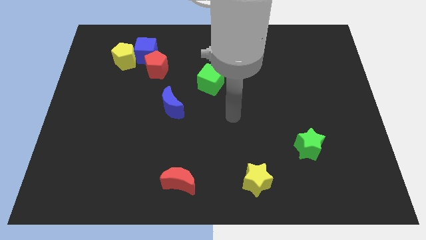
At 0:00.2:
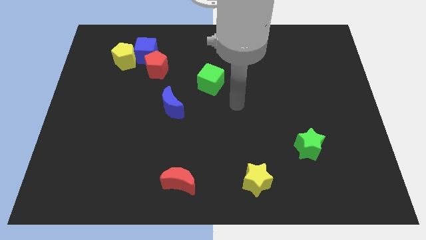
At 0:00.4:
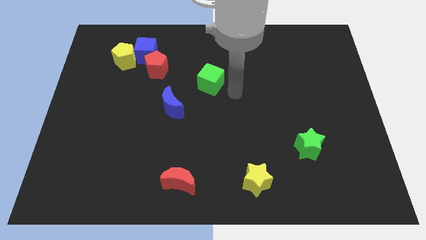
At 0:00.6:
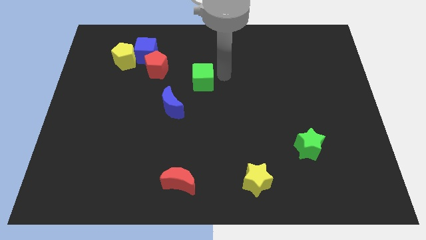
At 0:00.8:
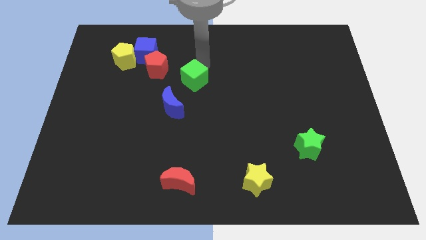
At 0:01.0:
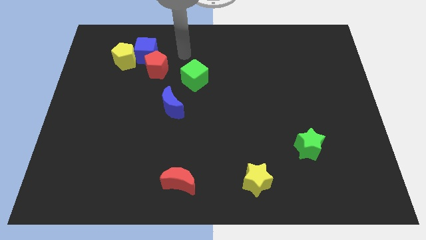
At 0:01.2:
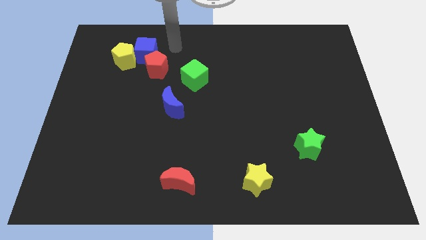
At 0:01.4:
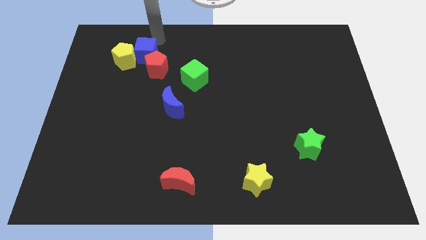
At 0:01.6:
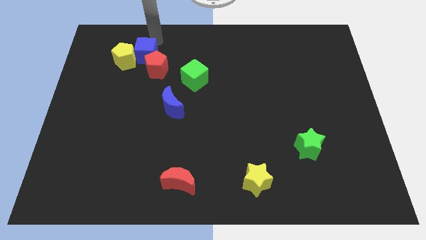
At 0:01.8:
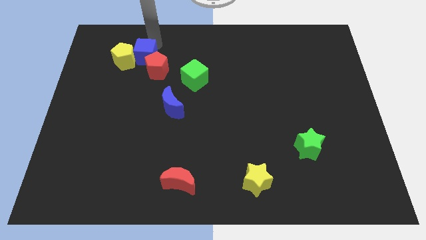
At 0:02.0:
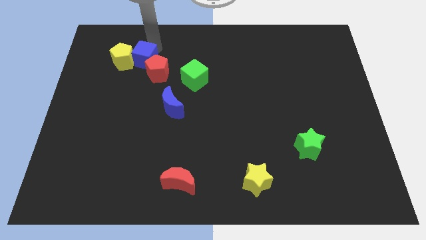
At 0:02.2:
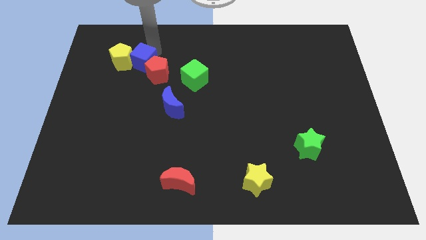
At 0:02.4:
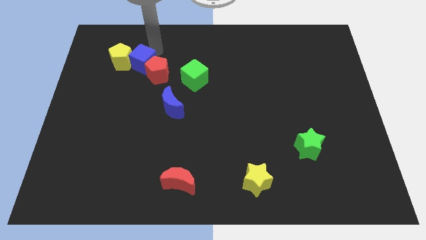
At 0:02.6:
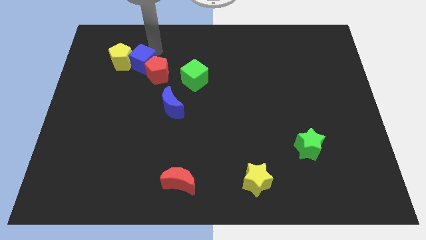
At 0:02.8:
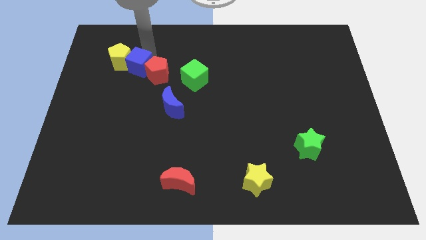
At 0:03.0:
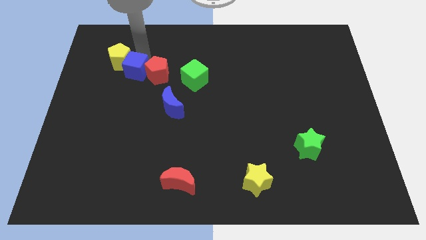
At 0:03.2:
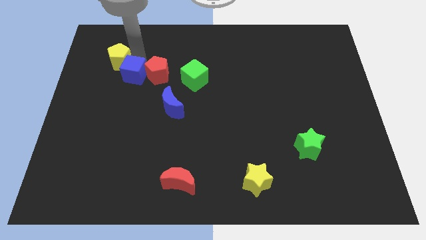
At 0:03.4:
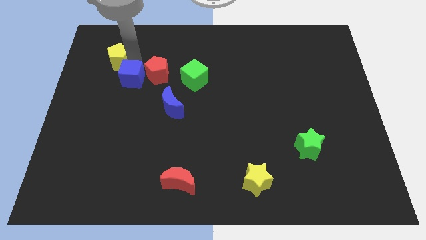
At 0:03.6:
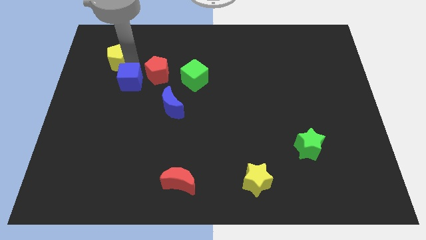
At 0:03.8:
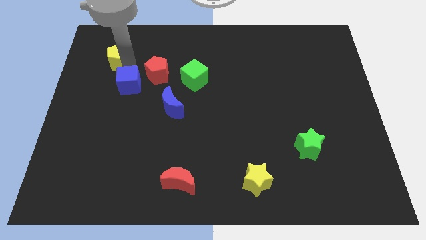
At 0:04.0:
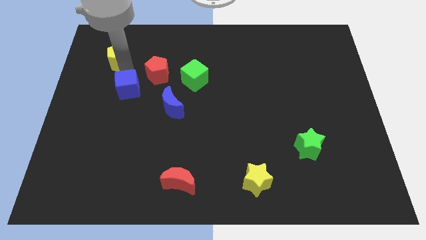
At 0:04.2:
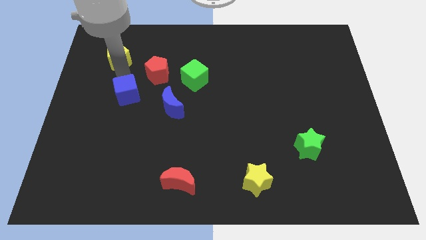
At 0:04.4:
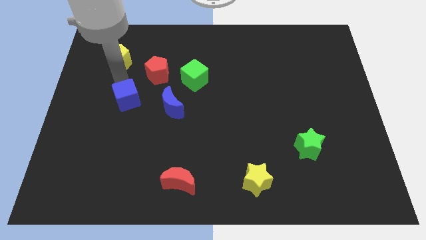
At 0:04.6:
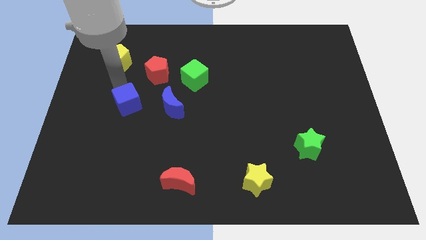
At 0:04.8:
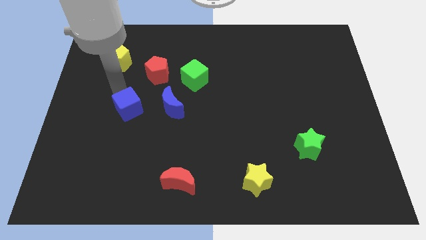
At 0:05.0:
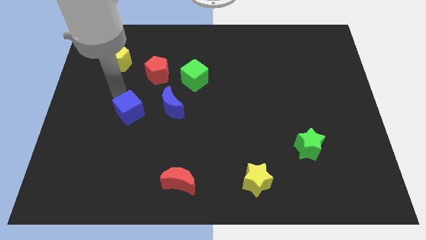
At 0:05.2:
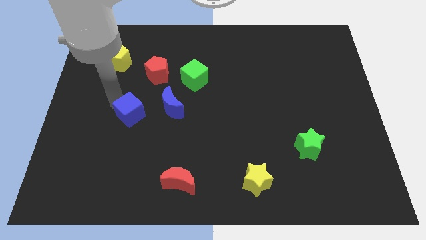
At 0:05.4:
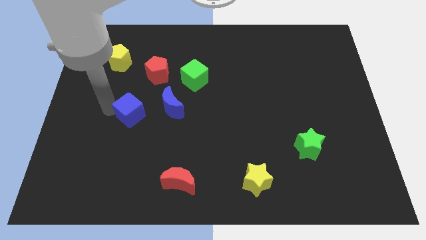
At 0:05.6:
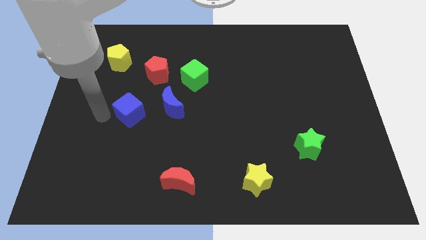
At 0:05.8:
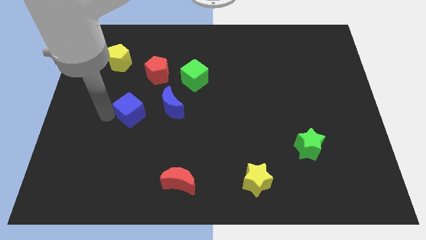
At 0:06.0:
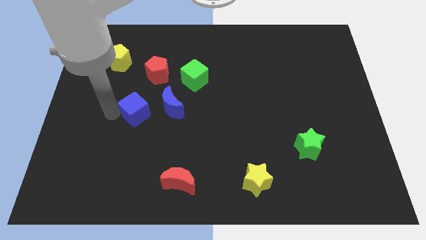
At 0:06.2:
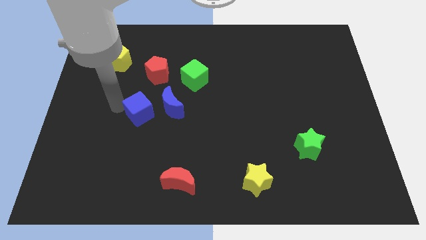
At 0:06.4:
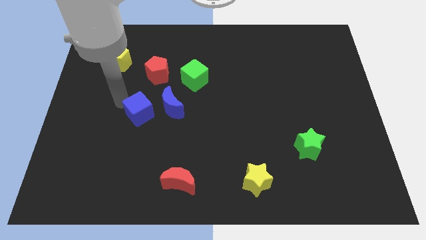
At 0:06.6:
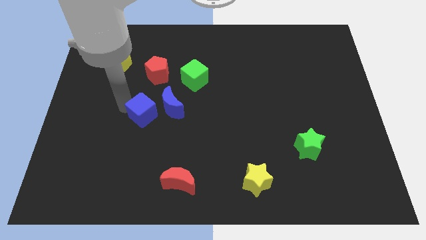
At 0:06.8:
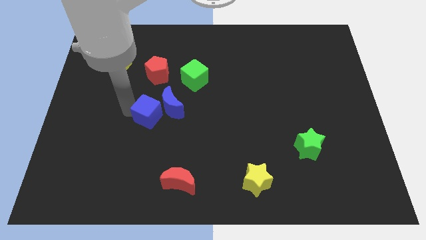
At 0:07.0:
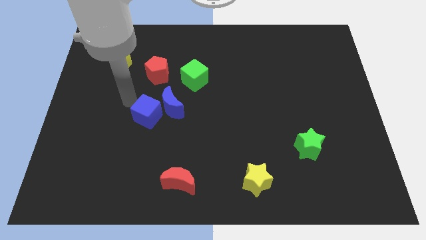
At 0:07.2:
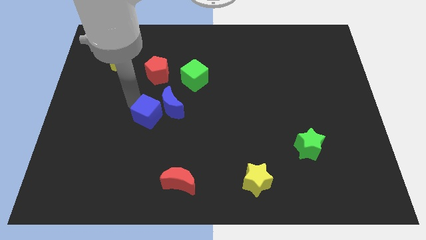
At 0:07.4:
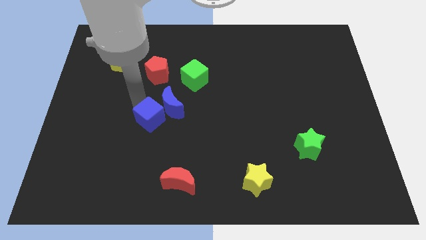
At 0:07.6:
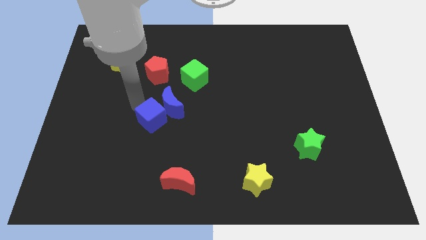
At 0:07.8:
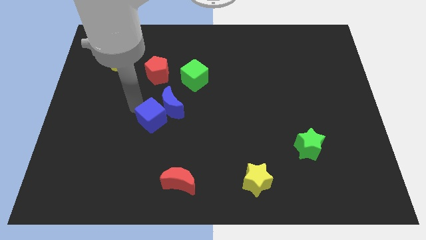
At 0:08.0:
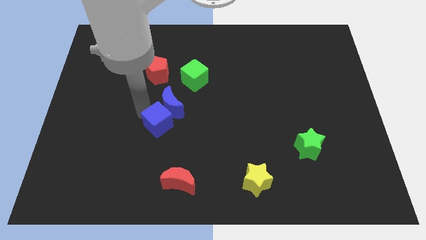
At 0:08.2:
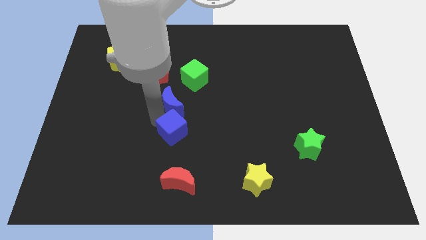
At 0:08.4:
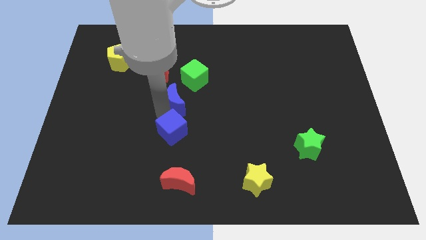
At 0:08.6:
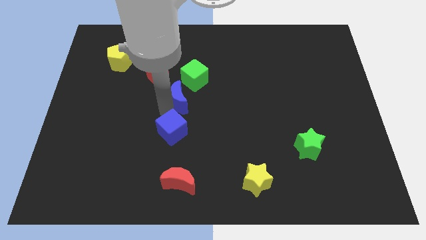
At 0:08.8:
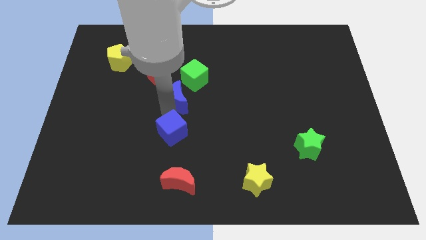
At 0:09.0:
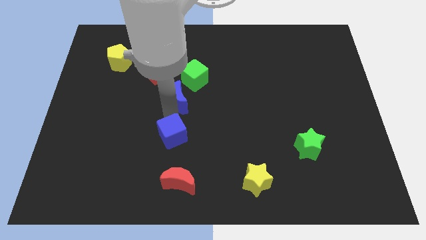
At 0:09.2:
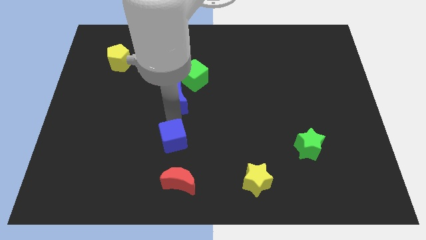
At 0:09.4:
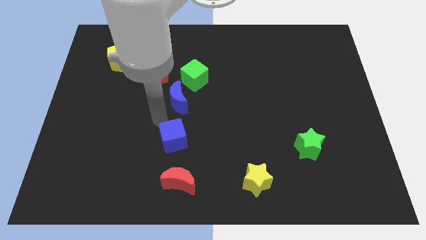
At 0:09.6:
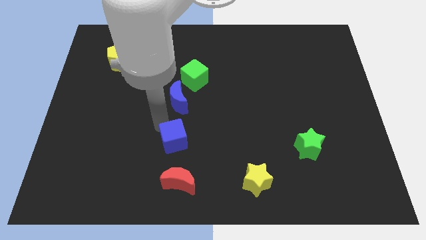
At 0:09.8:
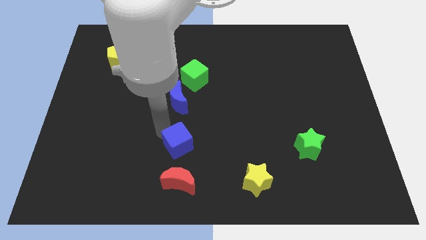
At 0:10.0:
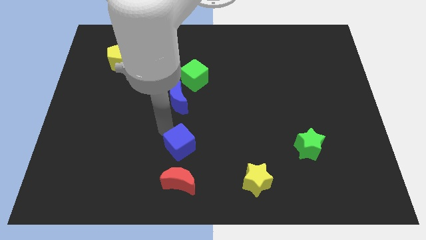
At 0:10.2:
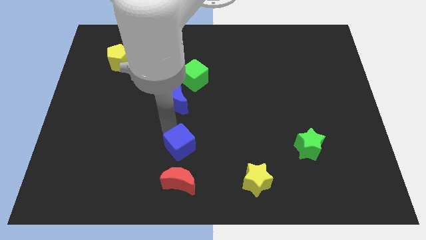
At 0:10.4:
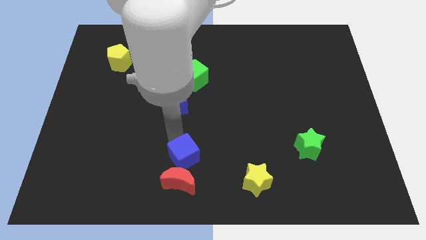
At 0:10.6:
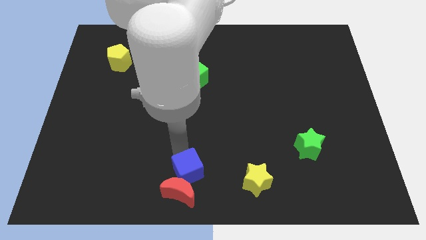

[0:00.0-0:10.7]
move the blue cube left of the yellow star

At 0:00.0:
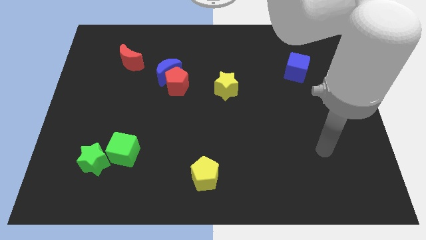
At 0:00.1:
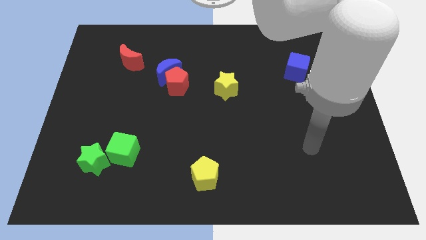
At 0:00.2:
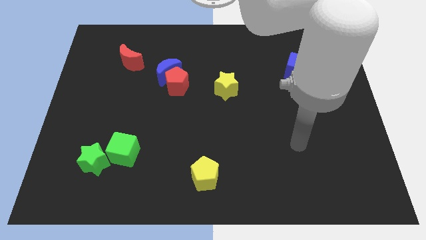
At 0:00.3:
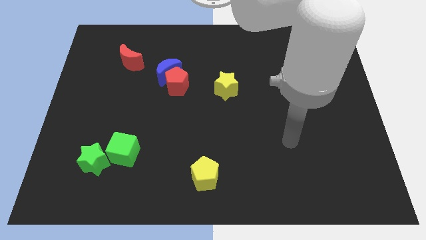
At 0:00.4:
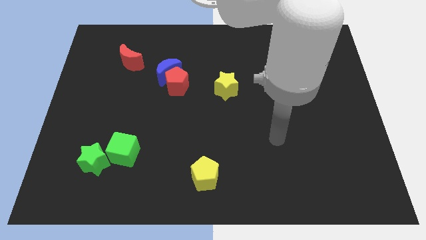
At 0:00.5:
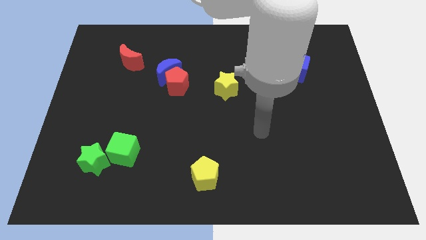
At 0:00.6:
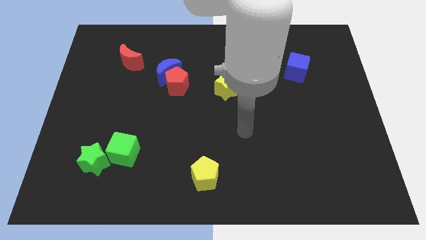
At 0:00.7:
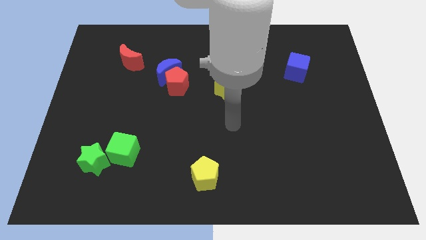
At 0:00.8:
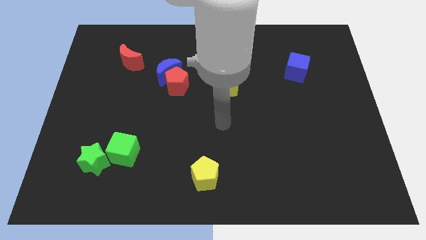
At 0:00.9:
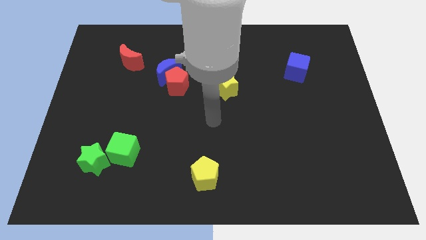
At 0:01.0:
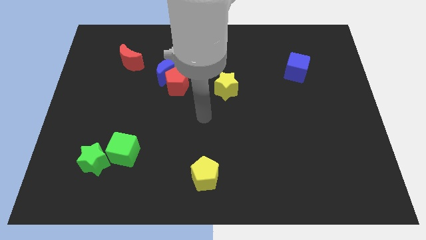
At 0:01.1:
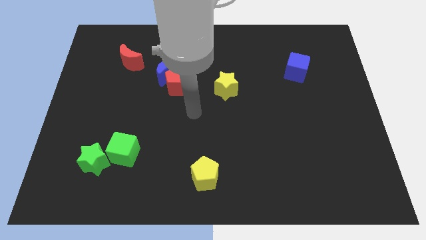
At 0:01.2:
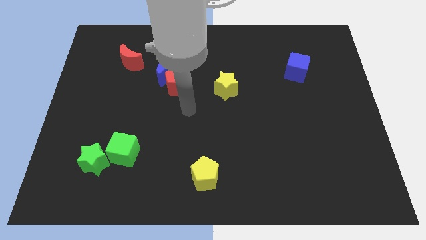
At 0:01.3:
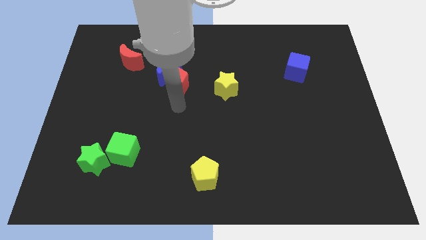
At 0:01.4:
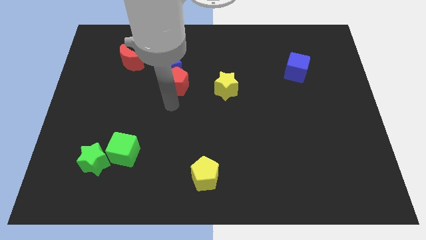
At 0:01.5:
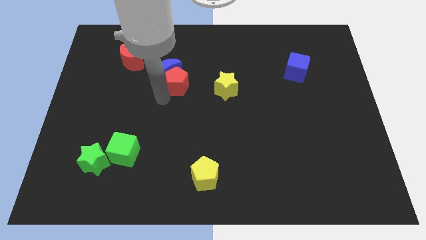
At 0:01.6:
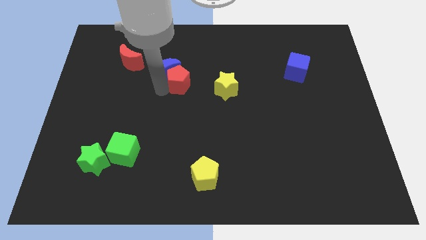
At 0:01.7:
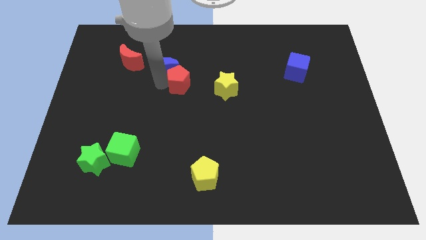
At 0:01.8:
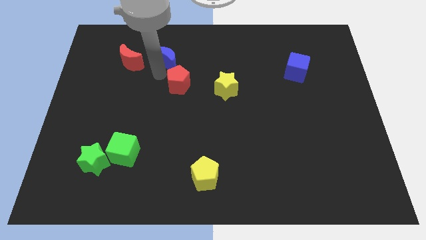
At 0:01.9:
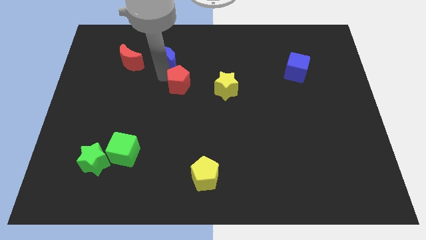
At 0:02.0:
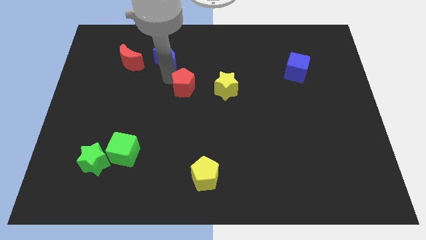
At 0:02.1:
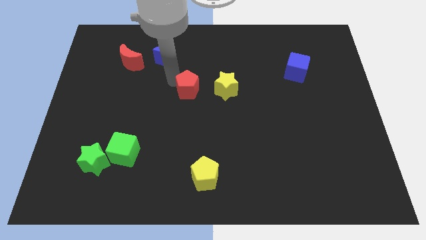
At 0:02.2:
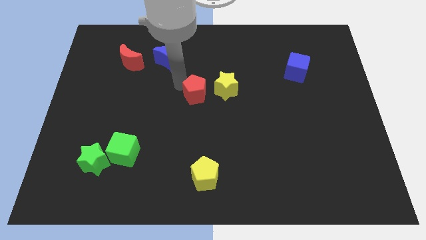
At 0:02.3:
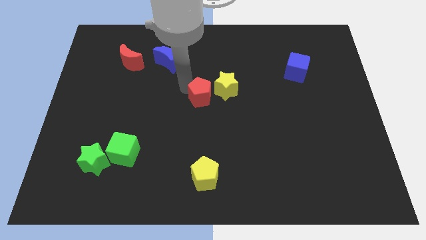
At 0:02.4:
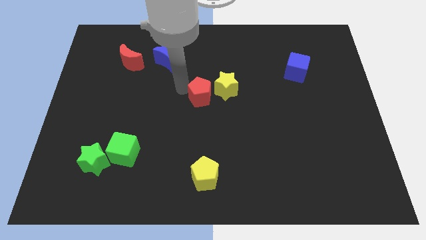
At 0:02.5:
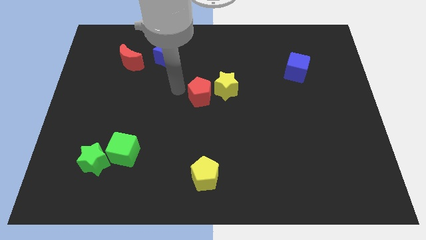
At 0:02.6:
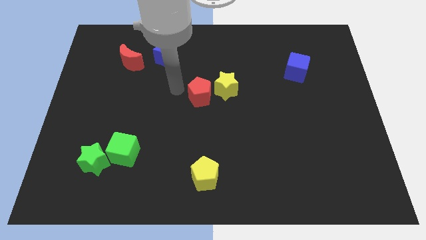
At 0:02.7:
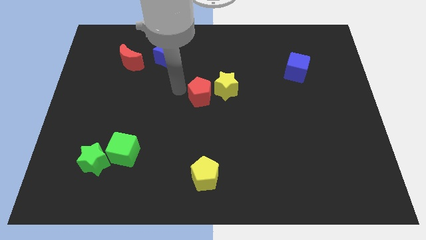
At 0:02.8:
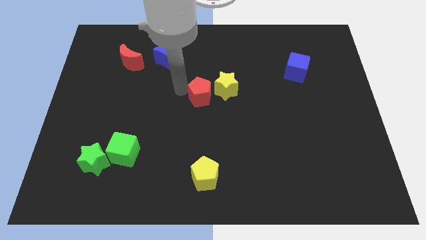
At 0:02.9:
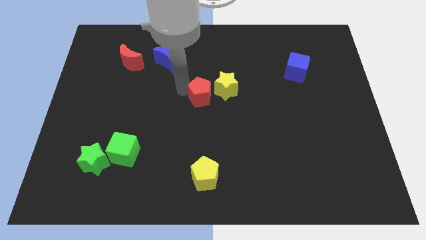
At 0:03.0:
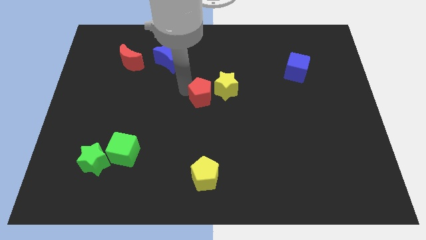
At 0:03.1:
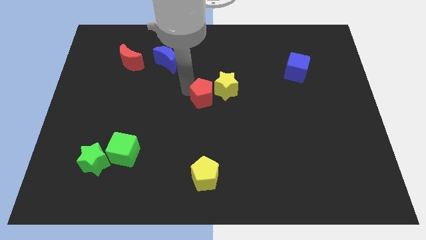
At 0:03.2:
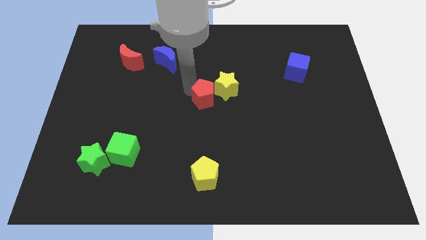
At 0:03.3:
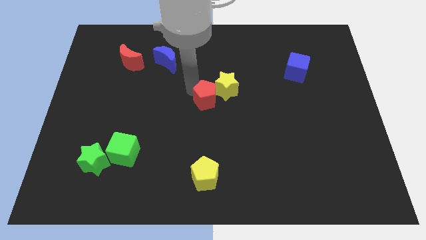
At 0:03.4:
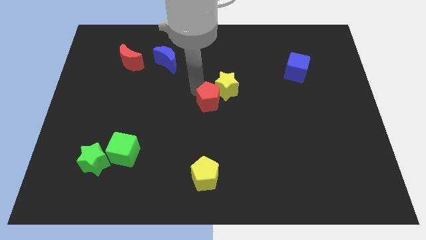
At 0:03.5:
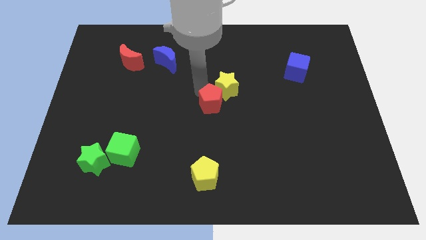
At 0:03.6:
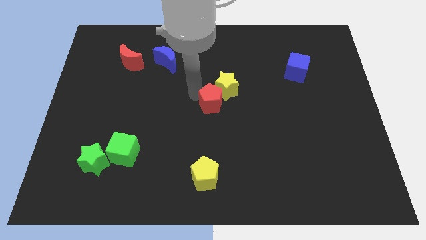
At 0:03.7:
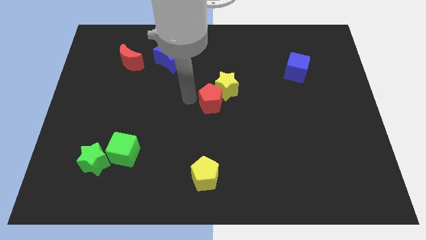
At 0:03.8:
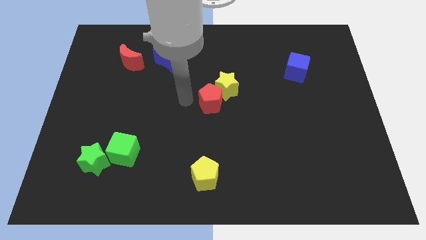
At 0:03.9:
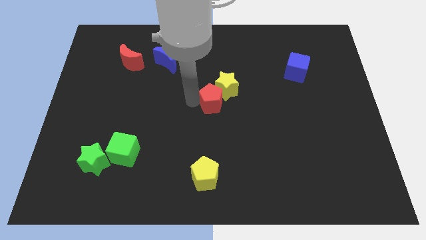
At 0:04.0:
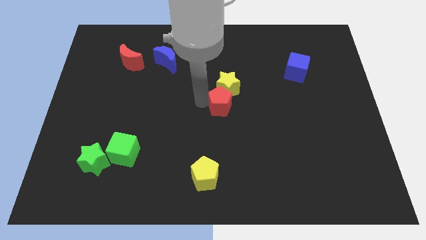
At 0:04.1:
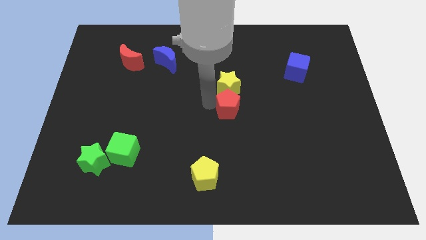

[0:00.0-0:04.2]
move the red pentagon to the bottom right of the yellow star
